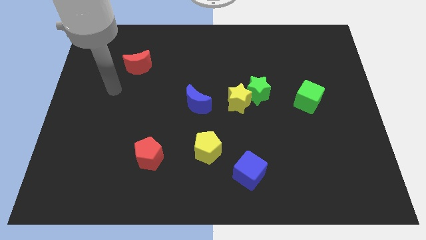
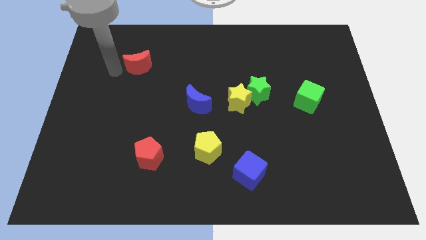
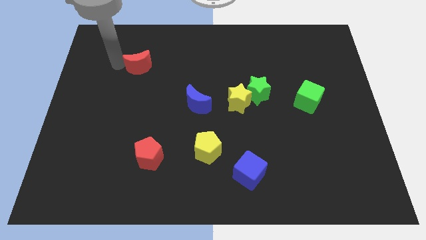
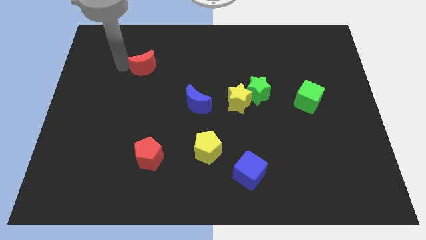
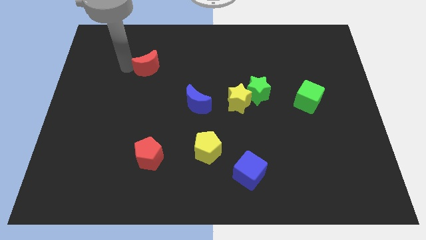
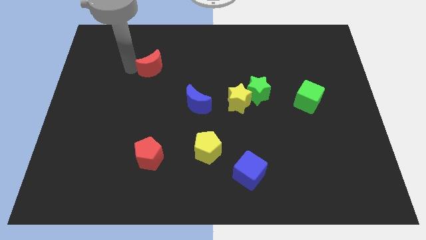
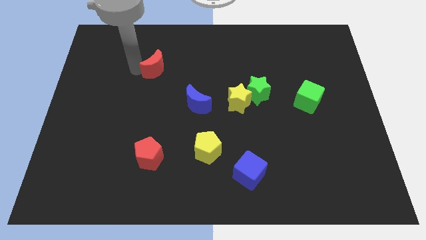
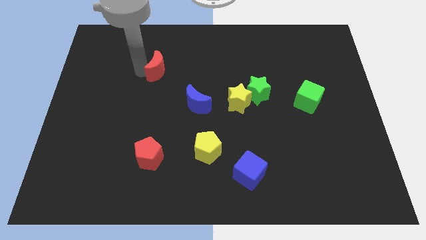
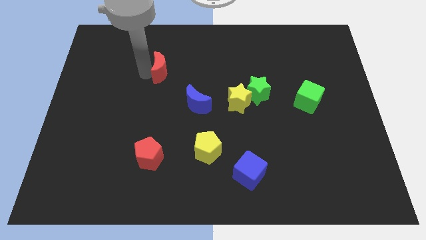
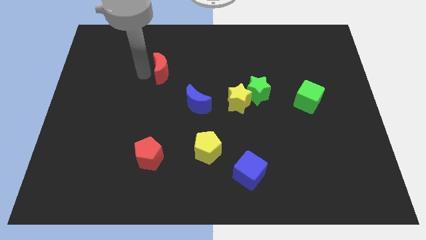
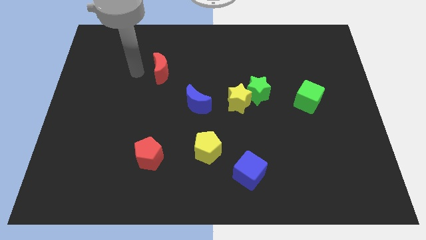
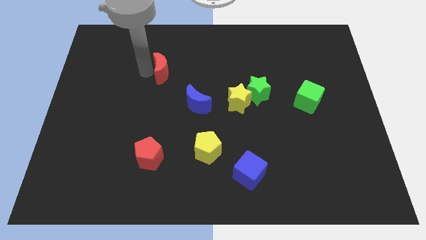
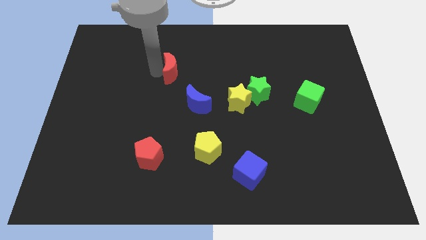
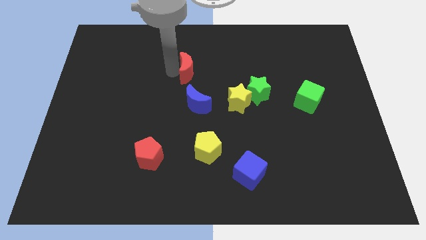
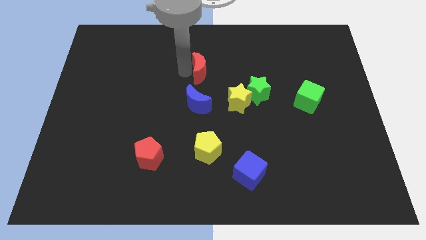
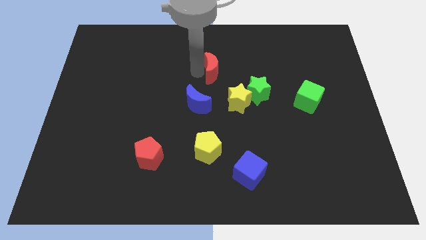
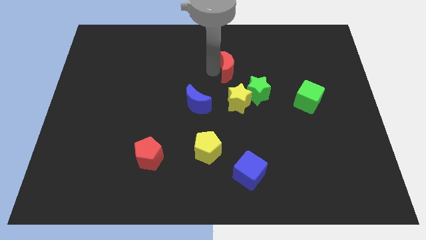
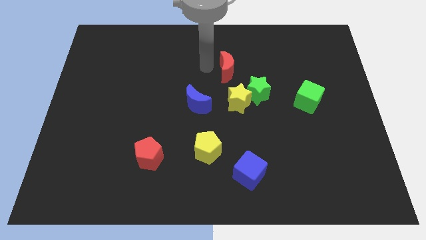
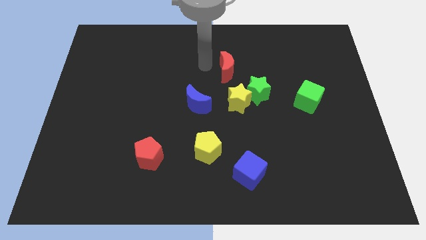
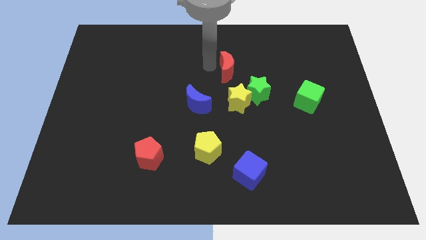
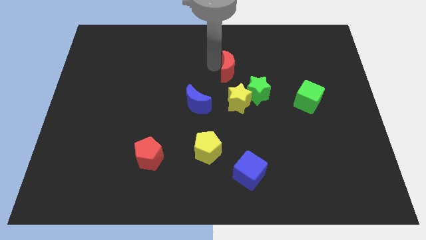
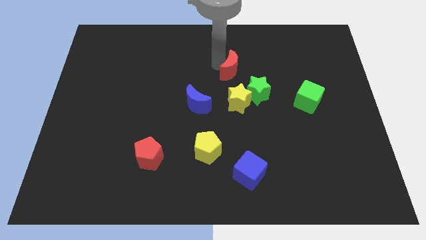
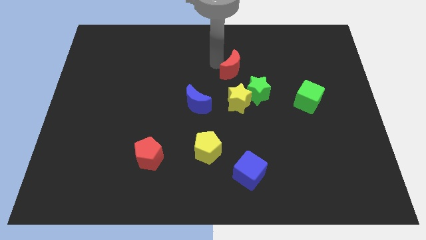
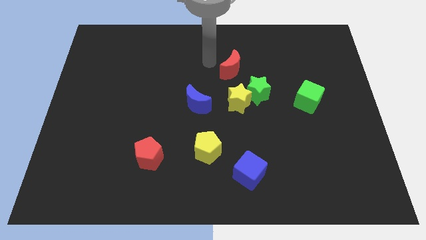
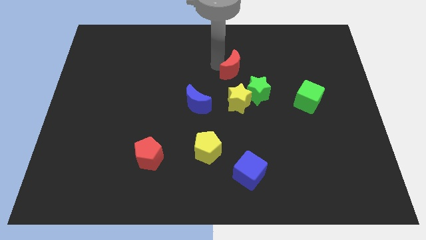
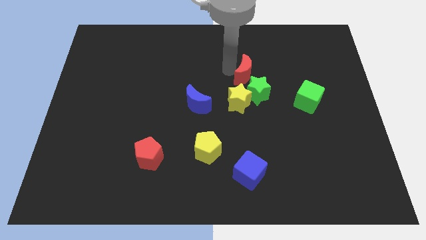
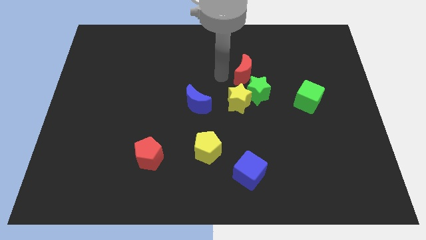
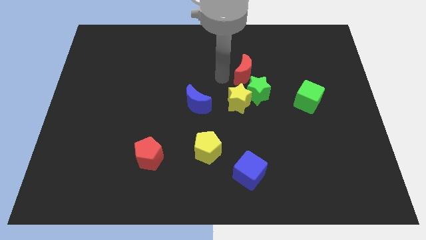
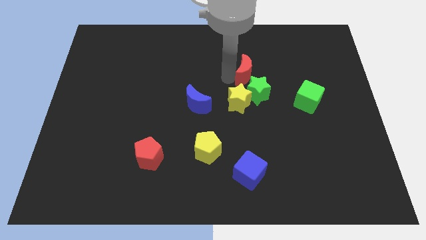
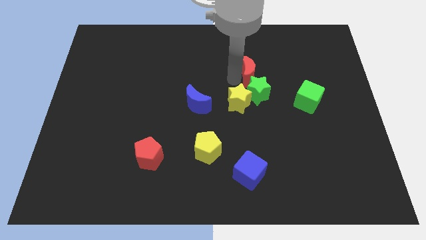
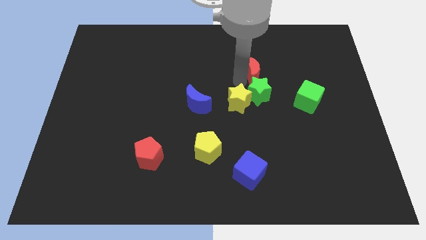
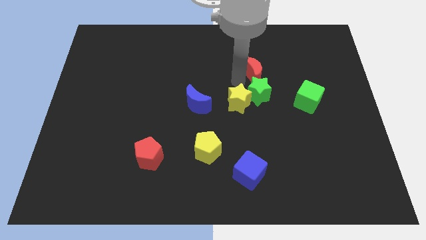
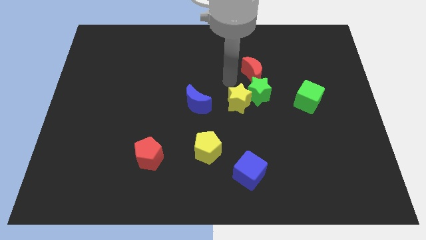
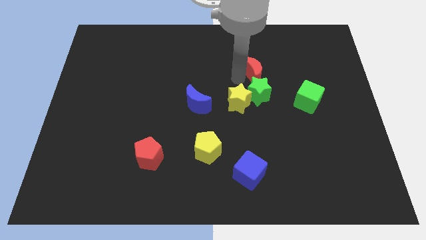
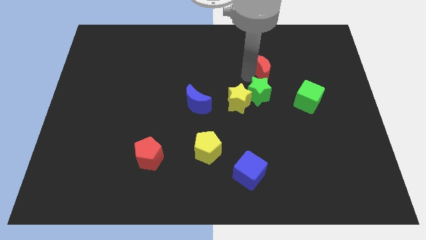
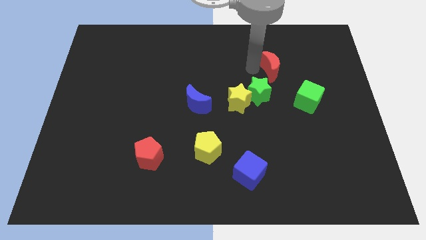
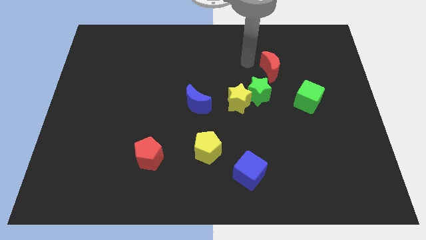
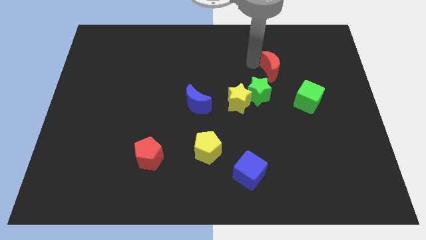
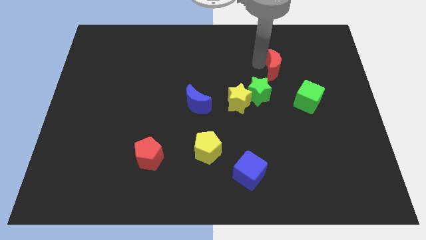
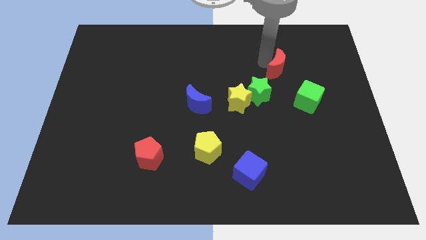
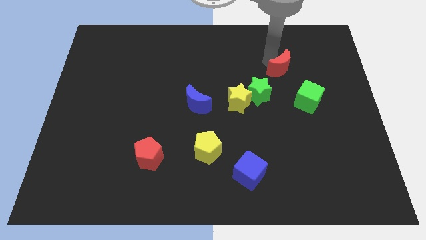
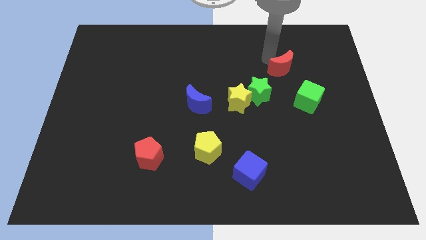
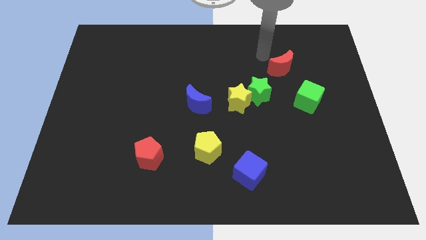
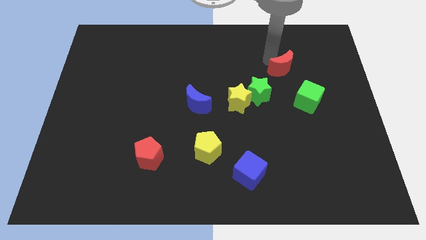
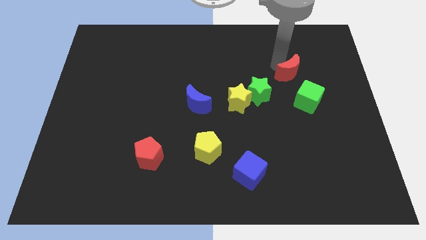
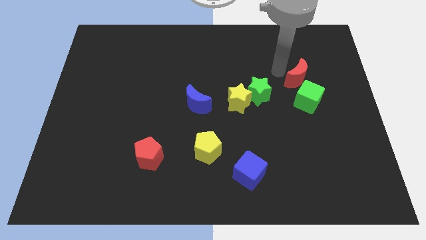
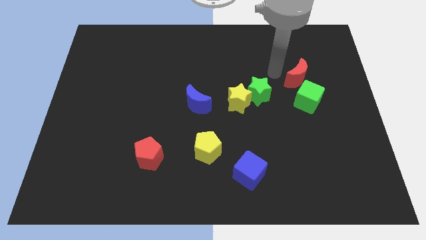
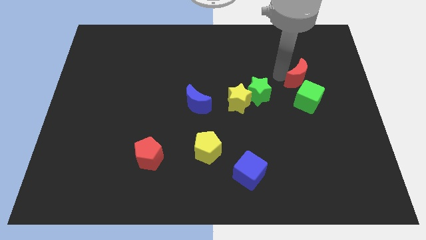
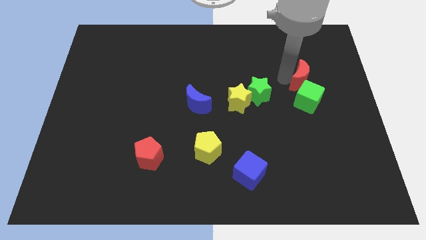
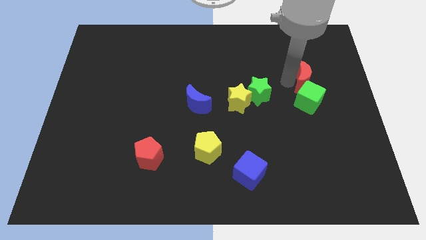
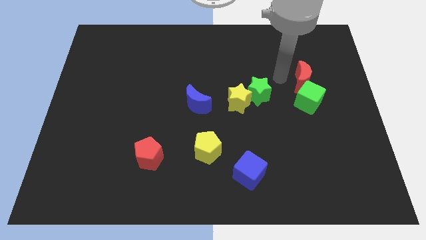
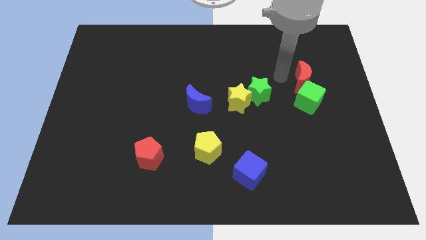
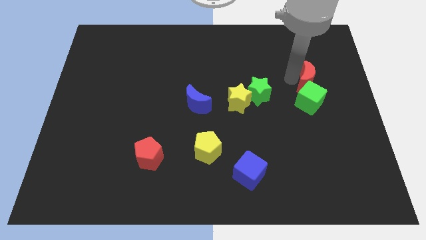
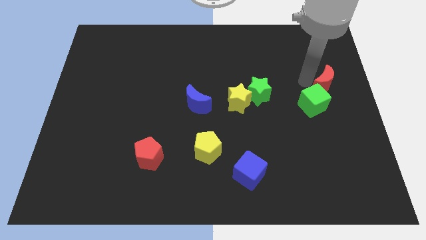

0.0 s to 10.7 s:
move the red moon to the right side of the board

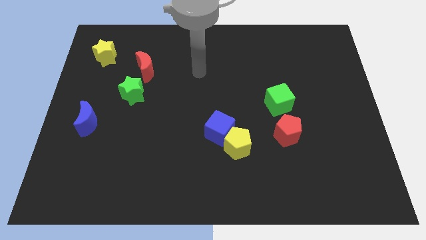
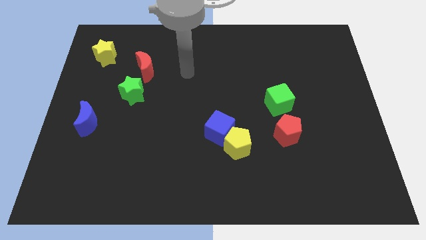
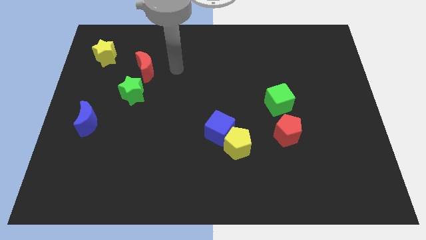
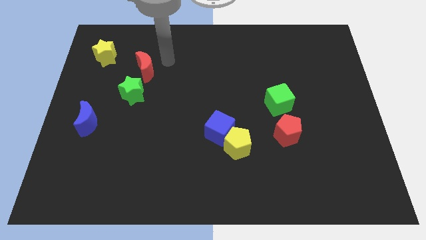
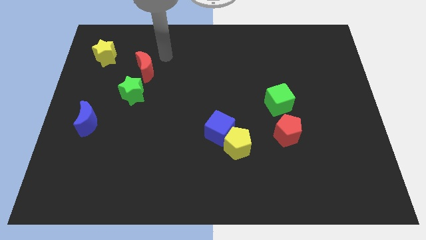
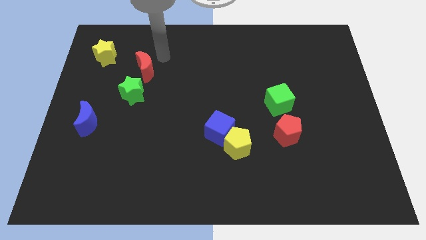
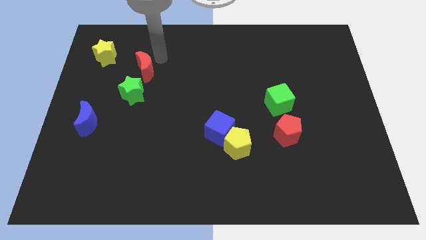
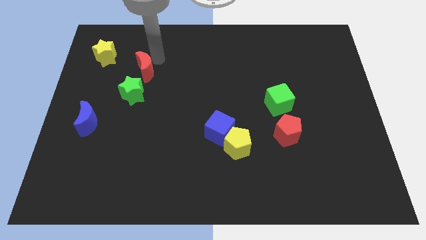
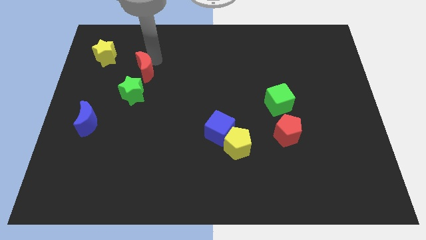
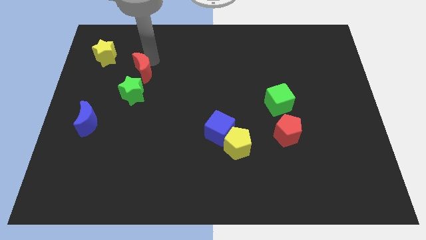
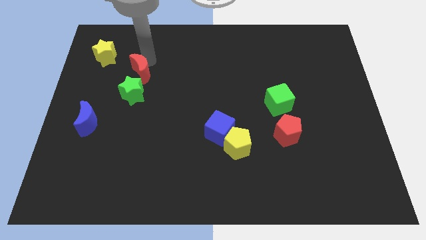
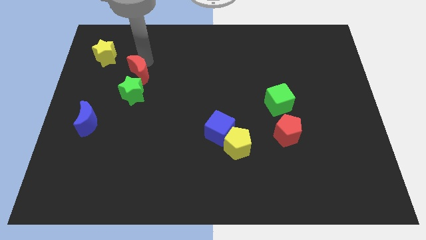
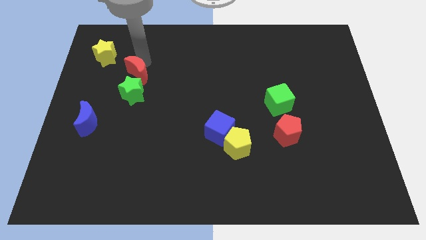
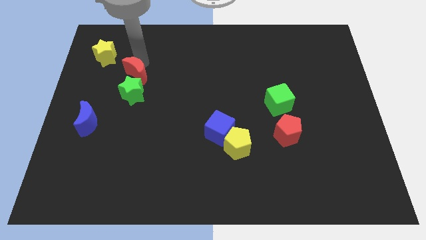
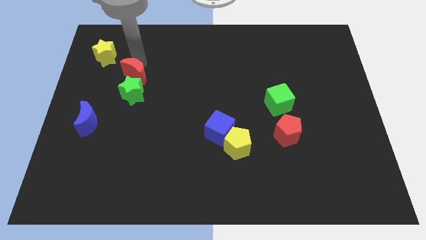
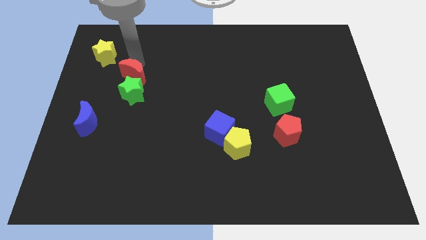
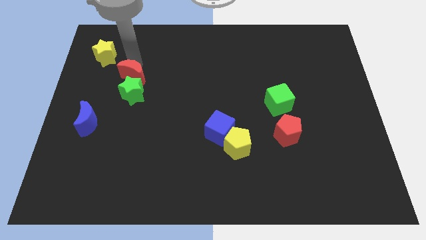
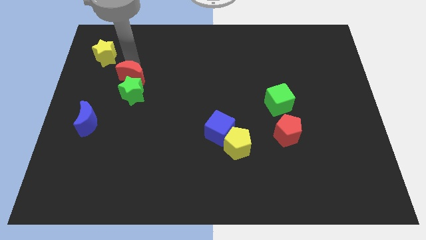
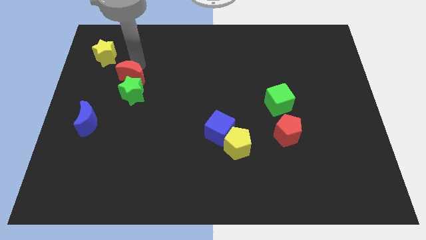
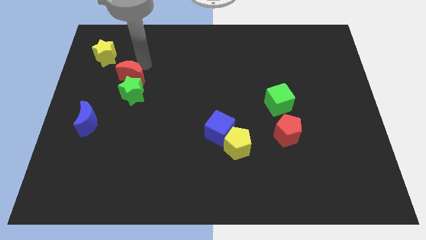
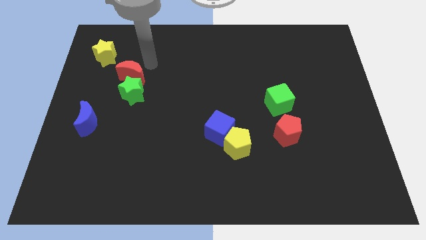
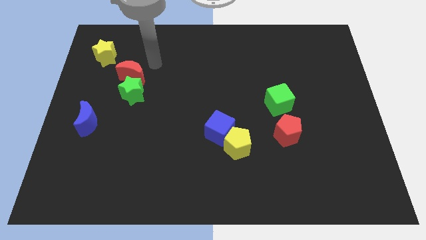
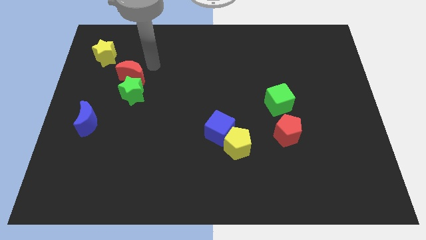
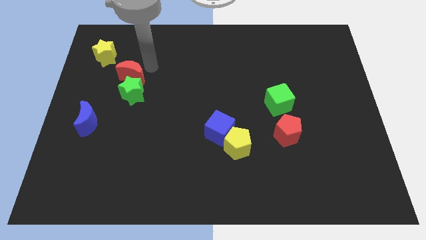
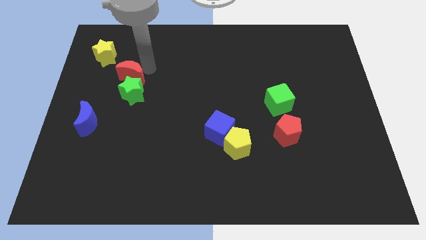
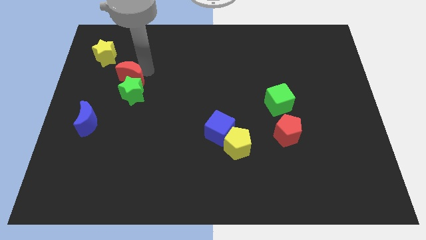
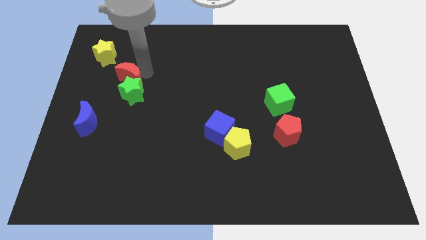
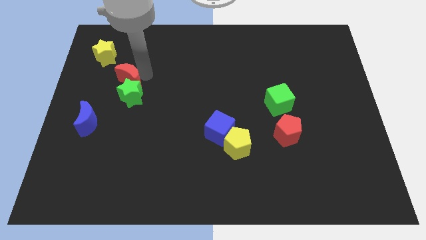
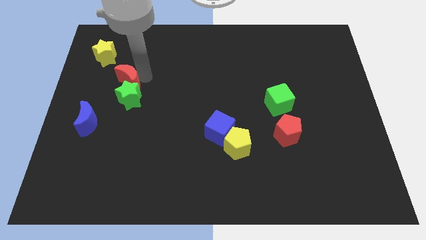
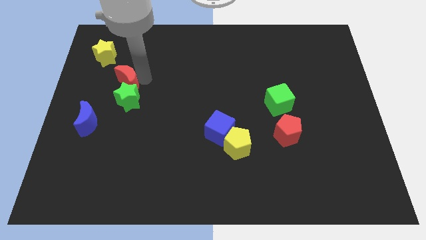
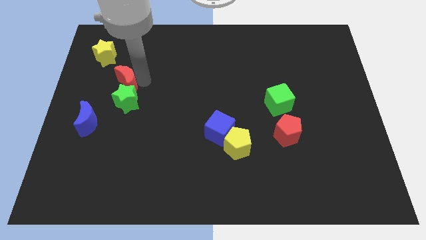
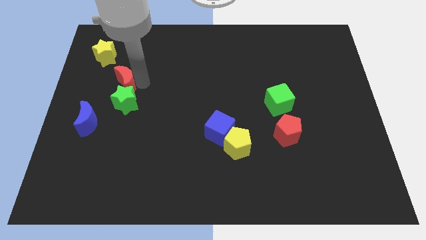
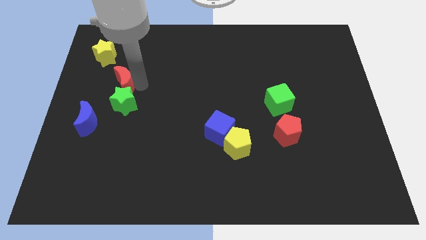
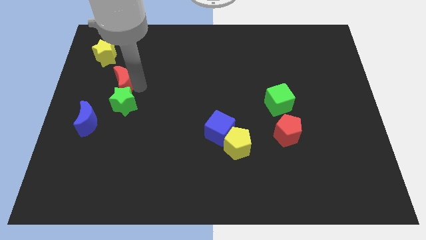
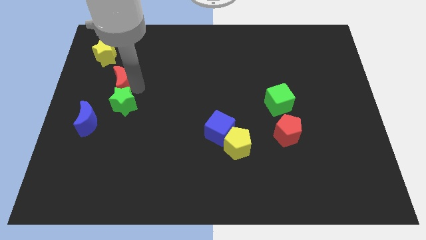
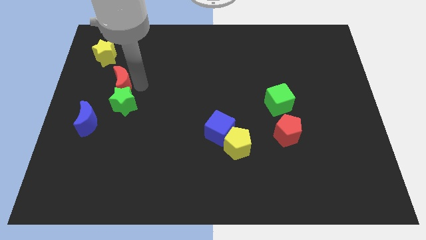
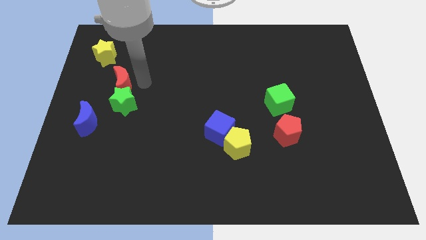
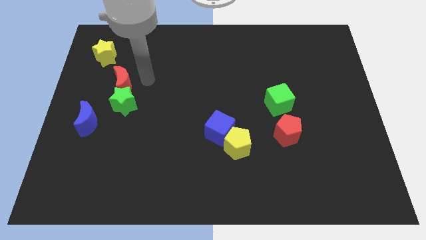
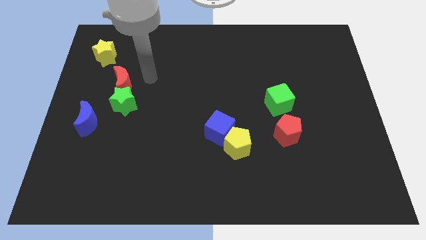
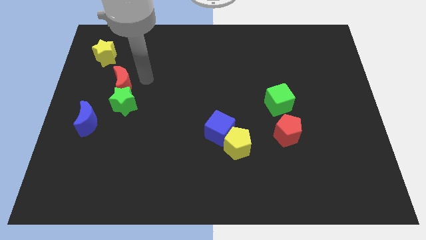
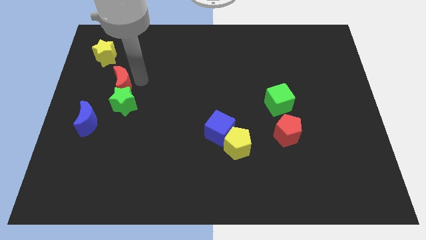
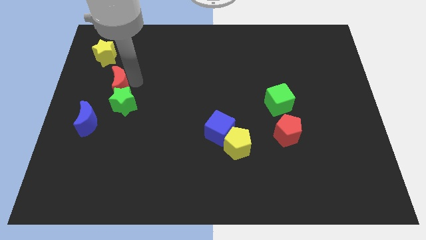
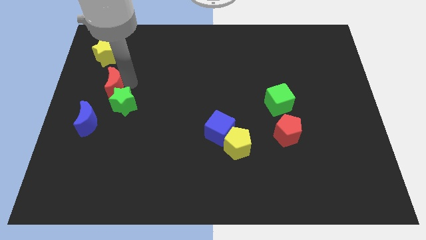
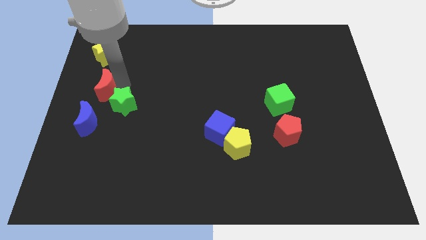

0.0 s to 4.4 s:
put the red moon to the center left
